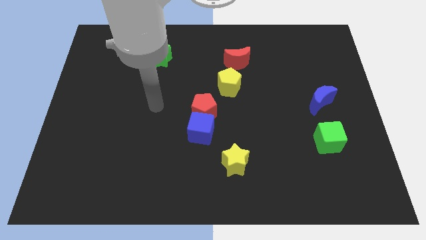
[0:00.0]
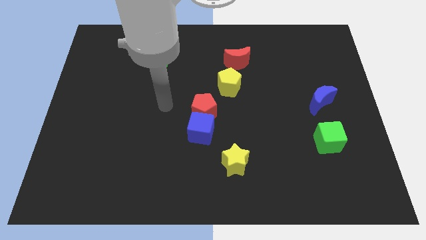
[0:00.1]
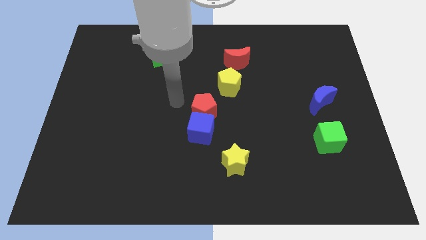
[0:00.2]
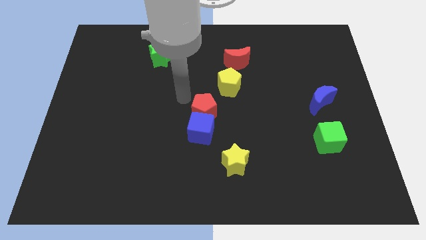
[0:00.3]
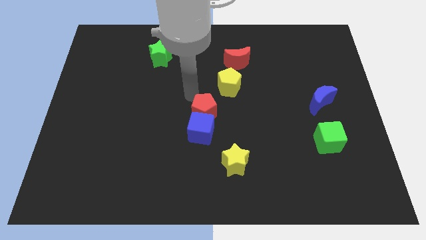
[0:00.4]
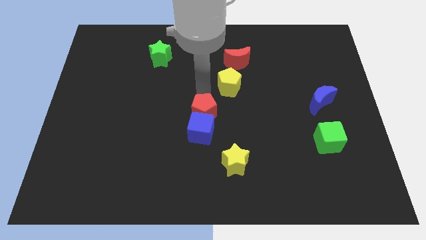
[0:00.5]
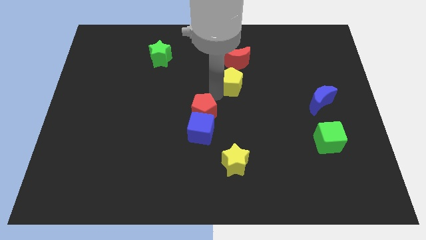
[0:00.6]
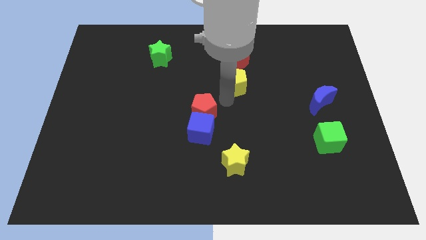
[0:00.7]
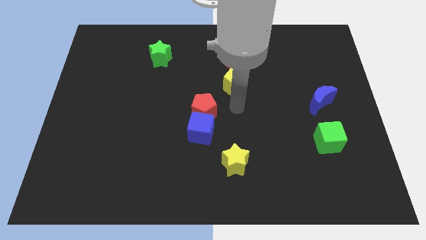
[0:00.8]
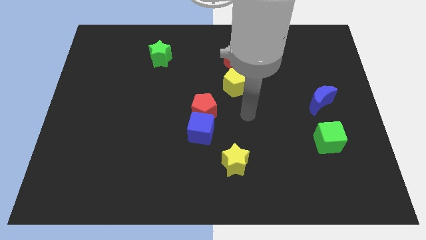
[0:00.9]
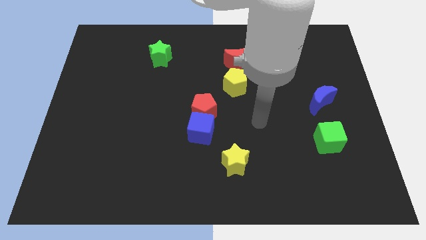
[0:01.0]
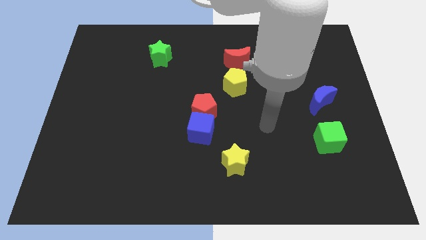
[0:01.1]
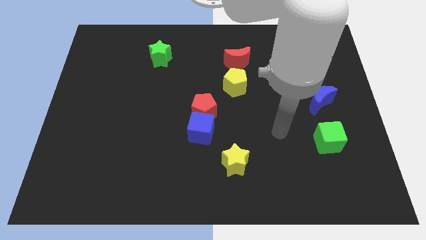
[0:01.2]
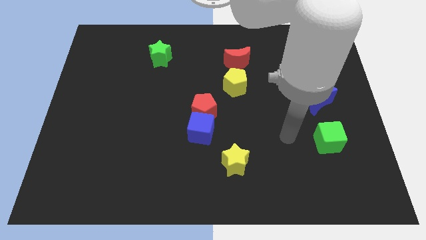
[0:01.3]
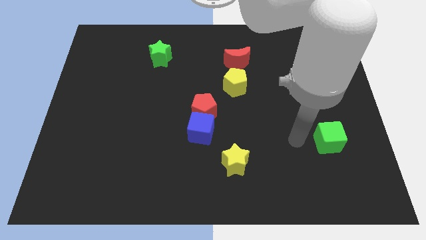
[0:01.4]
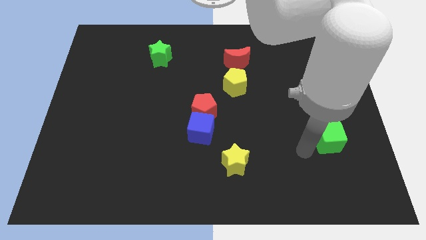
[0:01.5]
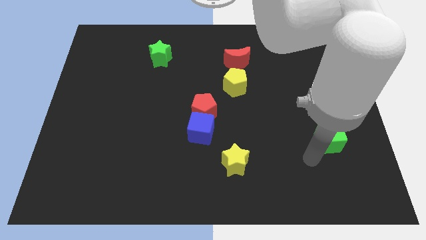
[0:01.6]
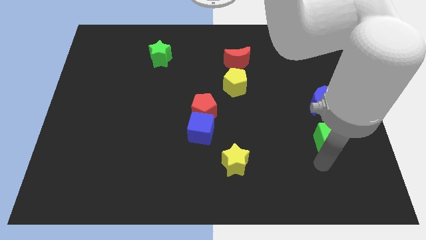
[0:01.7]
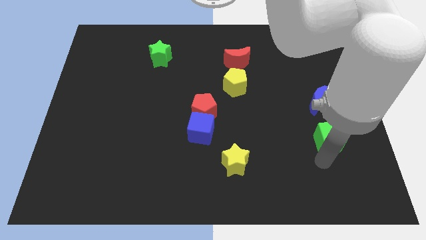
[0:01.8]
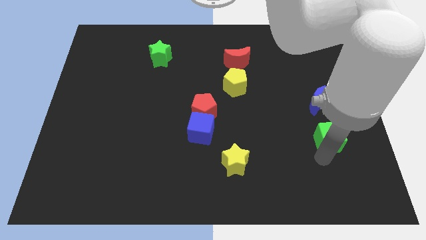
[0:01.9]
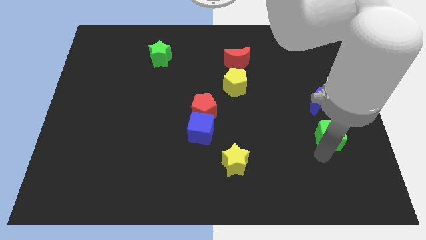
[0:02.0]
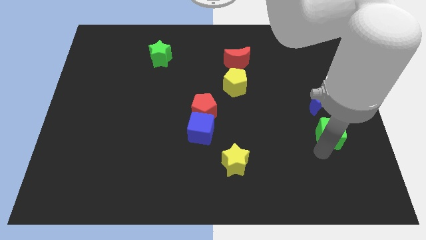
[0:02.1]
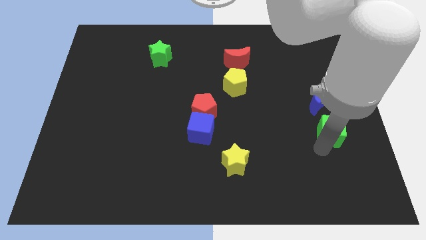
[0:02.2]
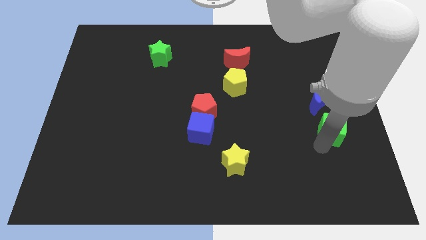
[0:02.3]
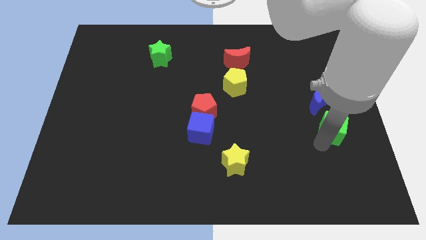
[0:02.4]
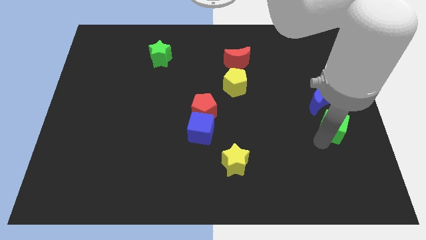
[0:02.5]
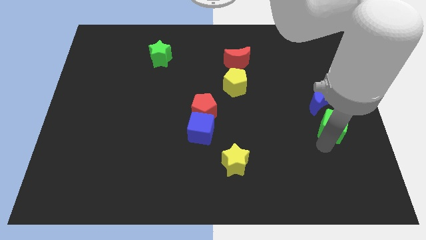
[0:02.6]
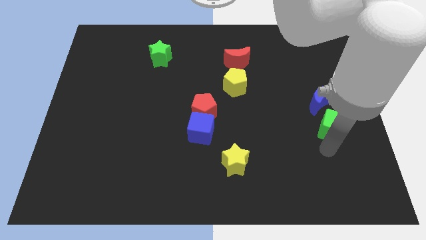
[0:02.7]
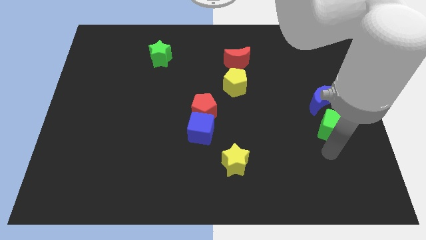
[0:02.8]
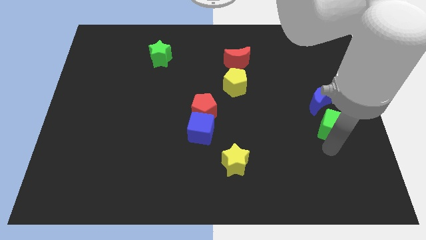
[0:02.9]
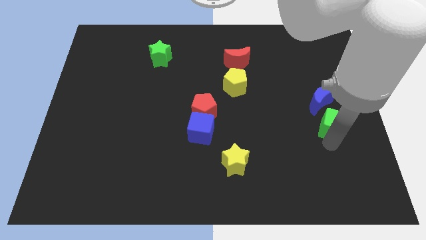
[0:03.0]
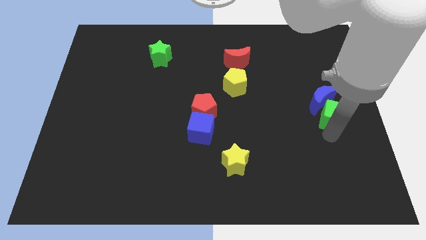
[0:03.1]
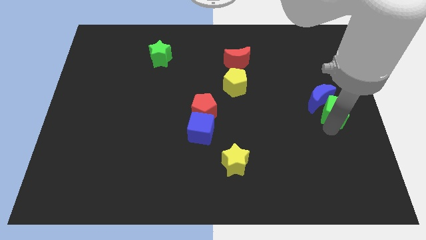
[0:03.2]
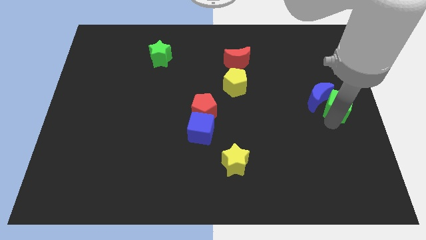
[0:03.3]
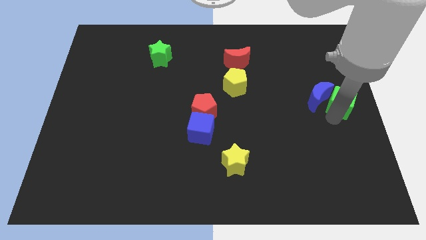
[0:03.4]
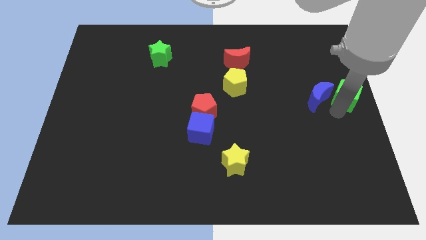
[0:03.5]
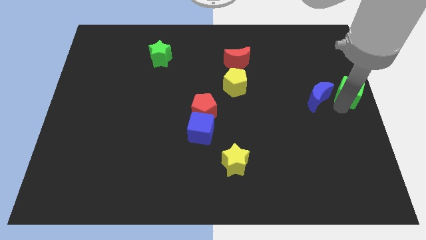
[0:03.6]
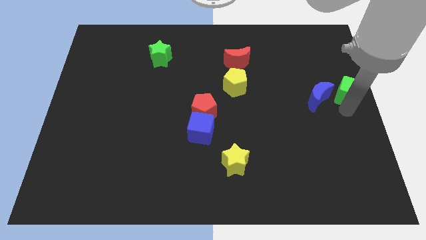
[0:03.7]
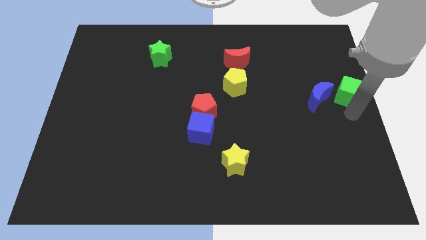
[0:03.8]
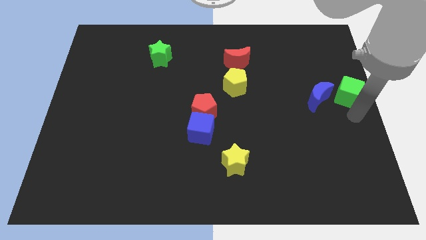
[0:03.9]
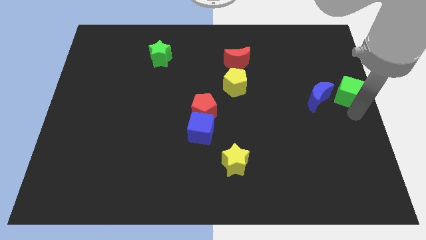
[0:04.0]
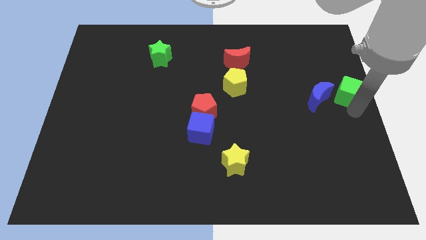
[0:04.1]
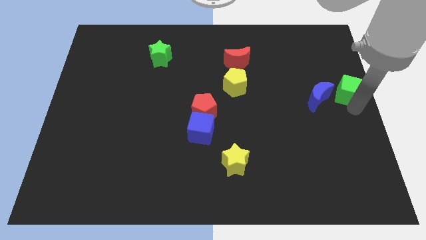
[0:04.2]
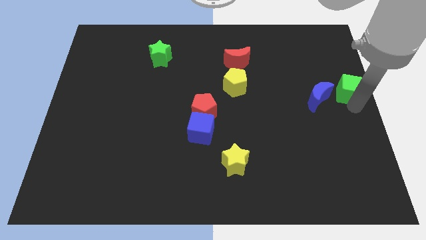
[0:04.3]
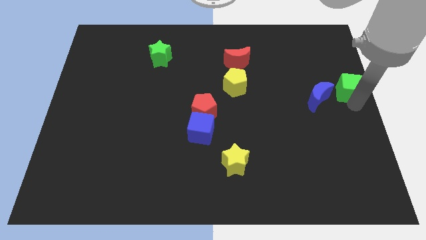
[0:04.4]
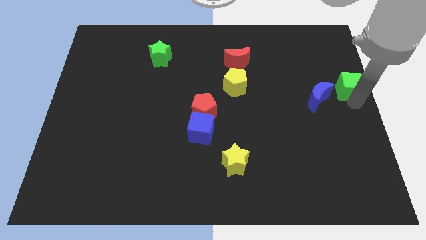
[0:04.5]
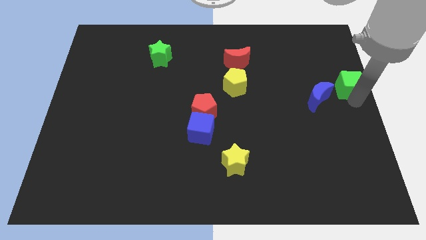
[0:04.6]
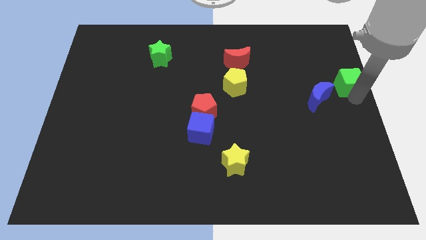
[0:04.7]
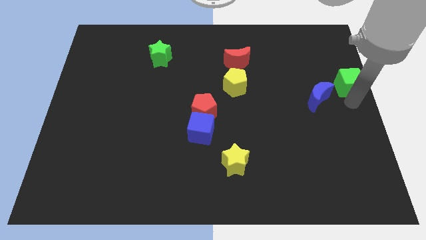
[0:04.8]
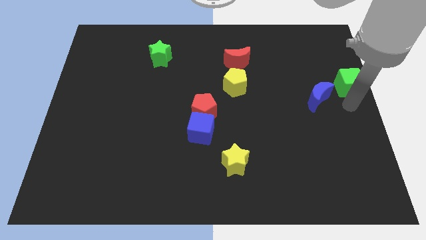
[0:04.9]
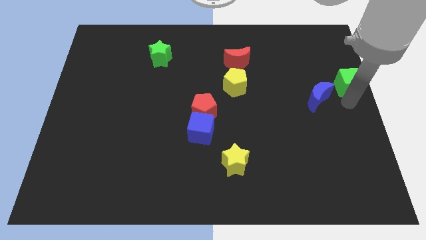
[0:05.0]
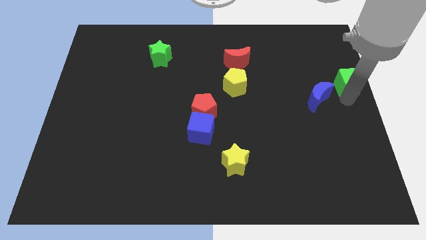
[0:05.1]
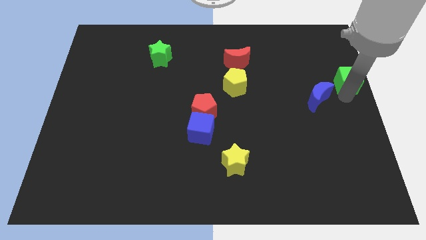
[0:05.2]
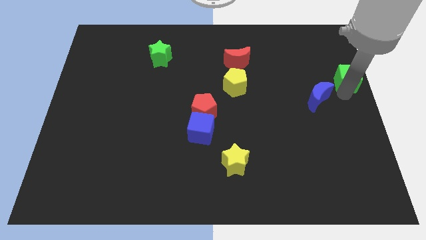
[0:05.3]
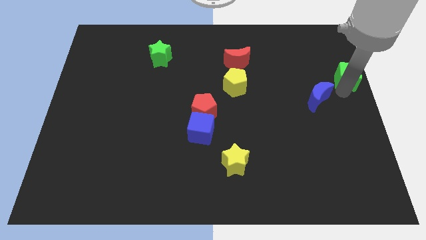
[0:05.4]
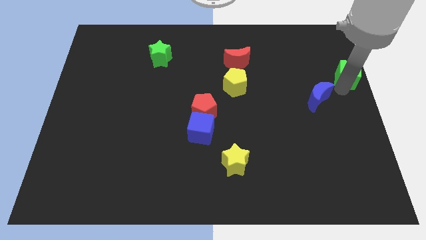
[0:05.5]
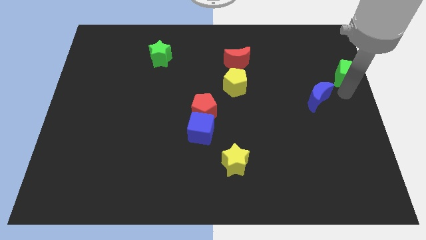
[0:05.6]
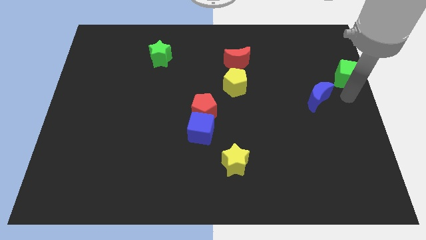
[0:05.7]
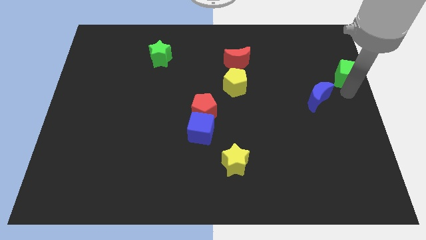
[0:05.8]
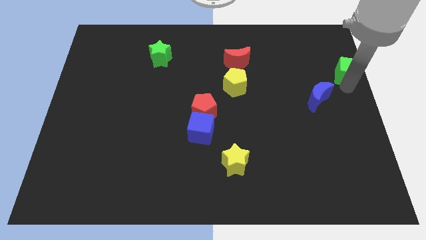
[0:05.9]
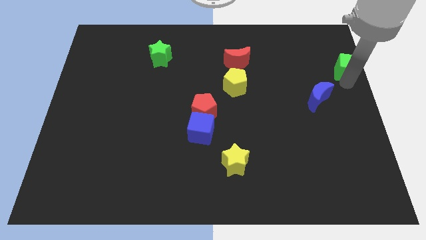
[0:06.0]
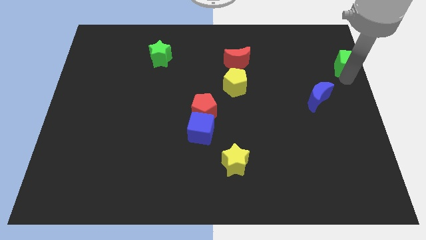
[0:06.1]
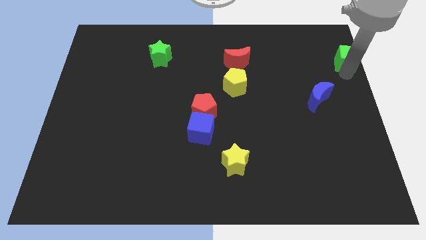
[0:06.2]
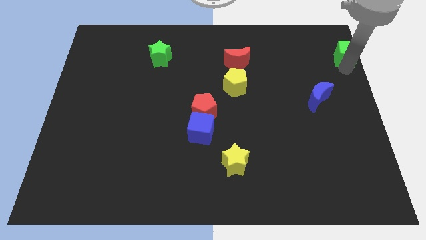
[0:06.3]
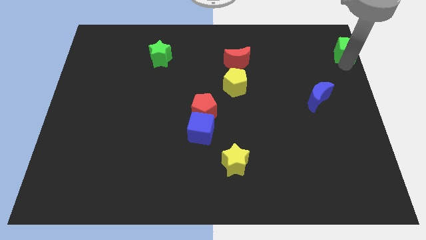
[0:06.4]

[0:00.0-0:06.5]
move the green cube to the upper right corner
